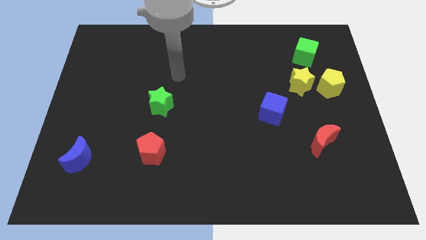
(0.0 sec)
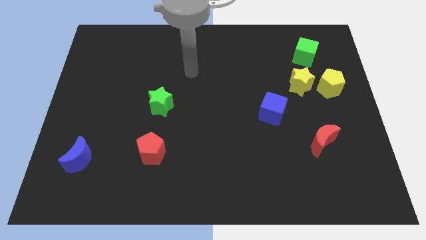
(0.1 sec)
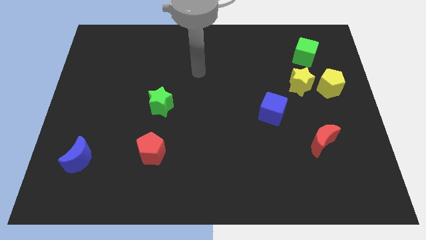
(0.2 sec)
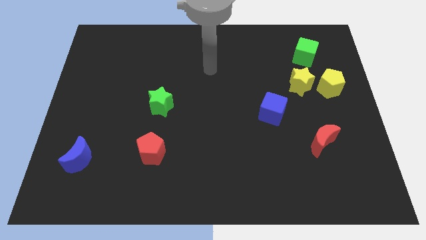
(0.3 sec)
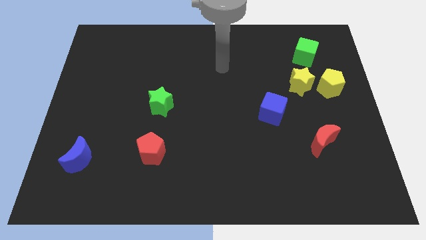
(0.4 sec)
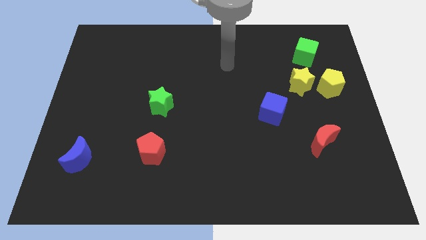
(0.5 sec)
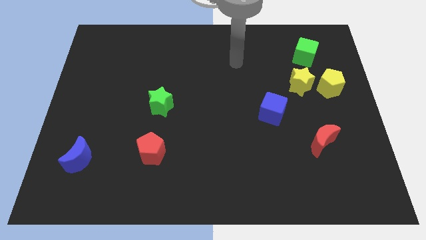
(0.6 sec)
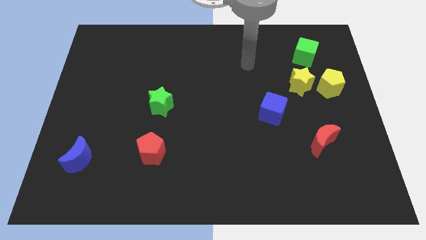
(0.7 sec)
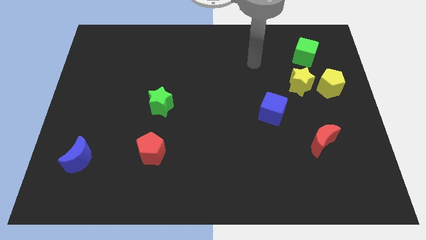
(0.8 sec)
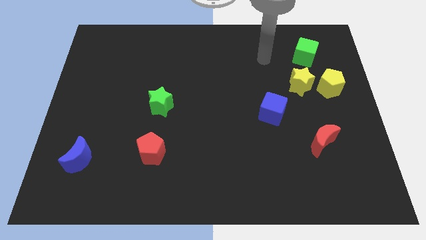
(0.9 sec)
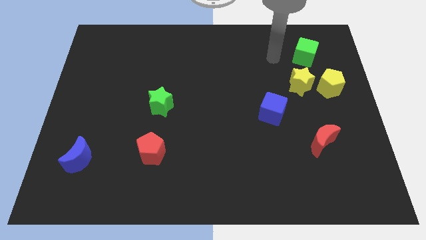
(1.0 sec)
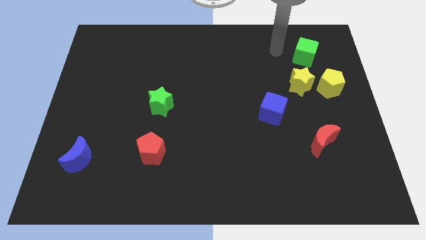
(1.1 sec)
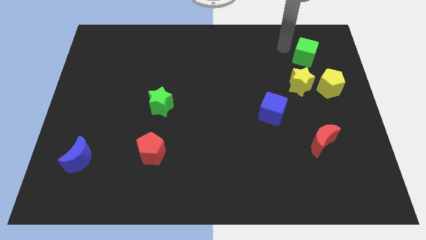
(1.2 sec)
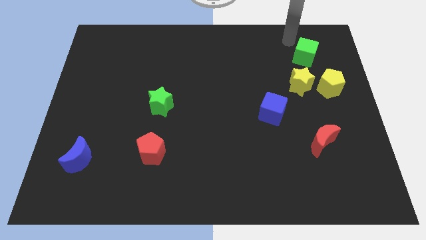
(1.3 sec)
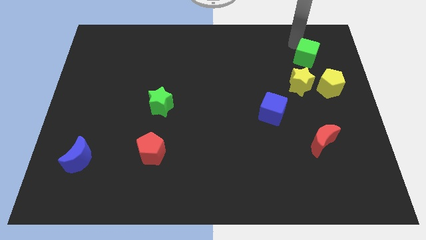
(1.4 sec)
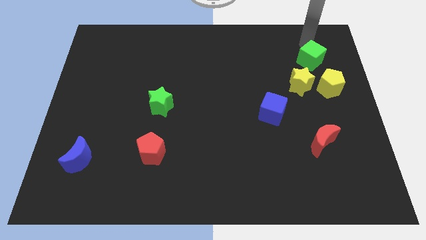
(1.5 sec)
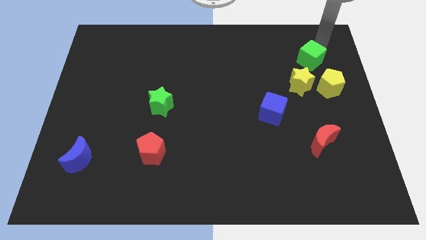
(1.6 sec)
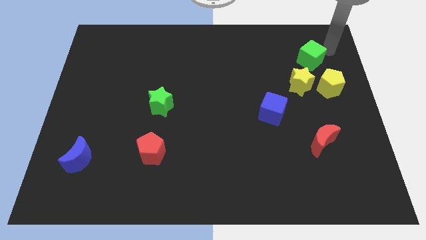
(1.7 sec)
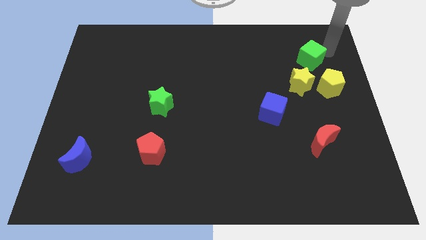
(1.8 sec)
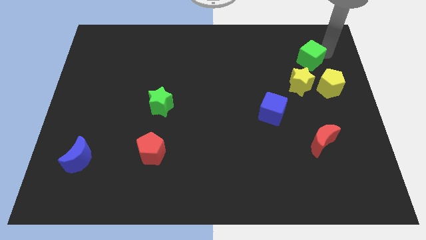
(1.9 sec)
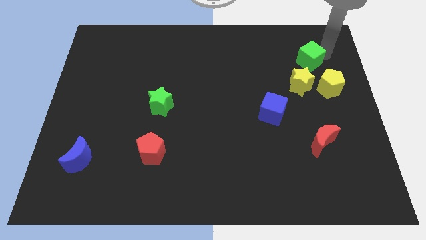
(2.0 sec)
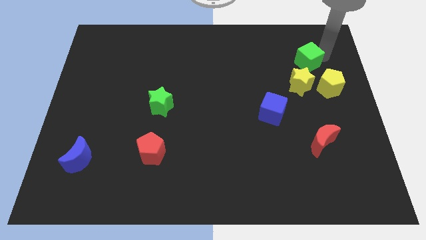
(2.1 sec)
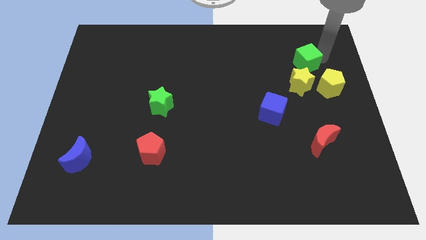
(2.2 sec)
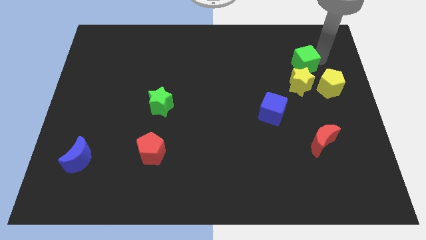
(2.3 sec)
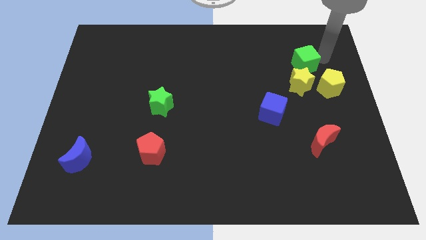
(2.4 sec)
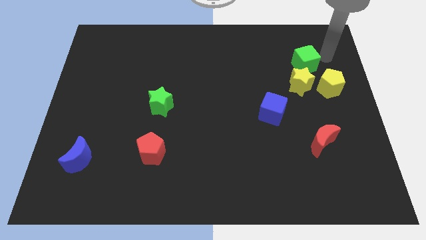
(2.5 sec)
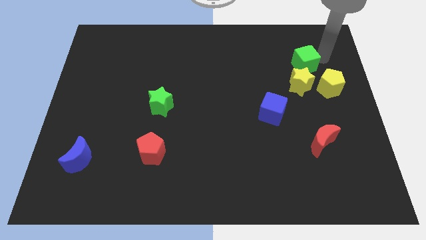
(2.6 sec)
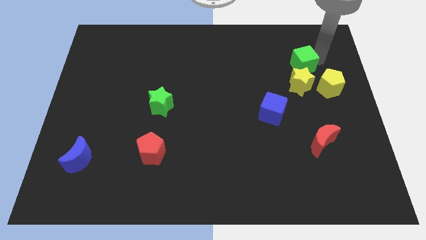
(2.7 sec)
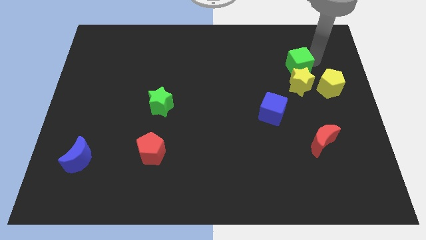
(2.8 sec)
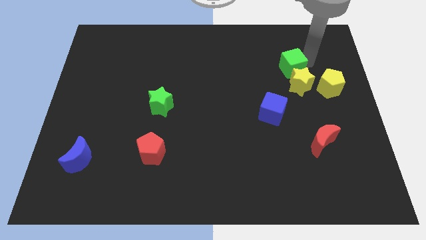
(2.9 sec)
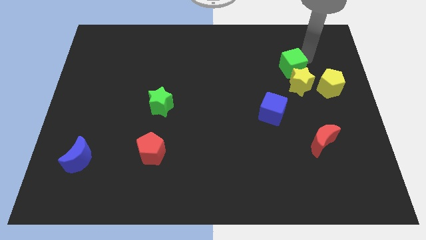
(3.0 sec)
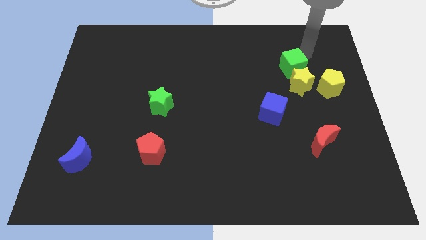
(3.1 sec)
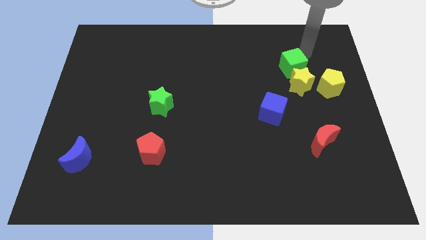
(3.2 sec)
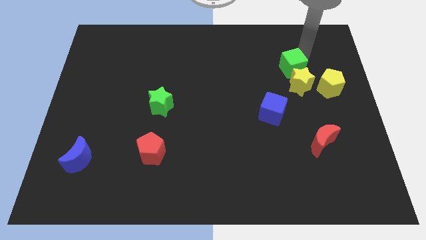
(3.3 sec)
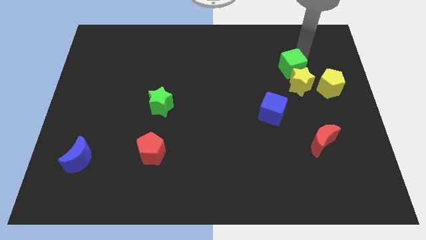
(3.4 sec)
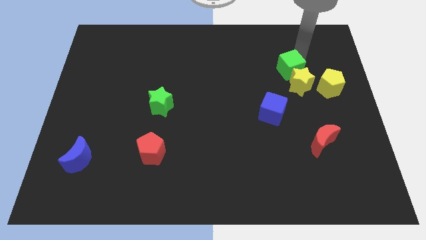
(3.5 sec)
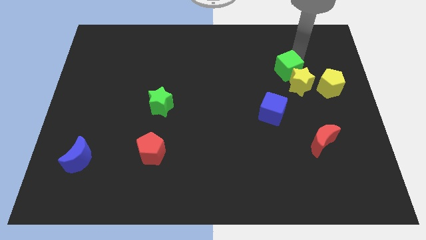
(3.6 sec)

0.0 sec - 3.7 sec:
push the green cube a little down and to the left diagonally

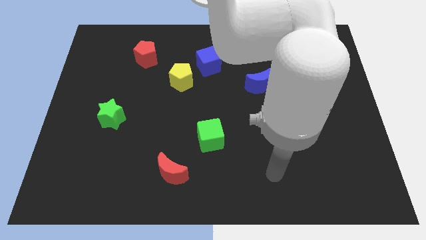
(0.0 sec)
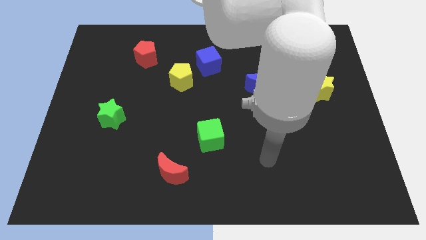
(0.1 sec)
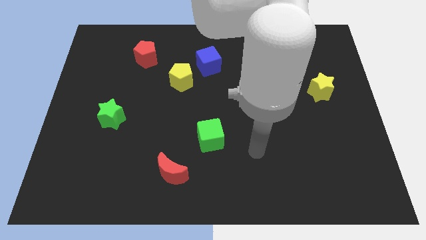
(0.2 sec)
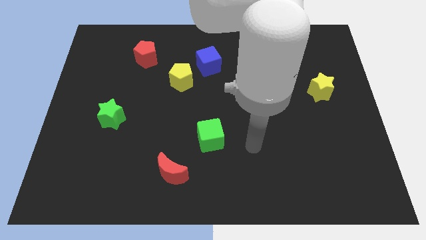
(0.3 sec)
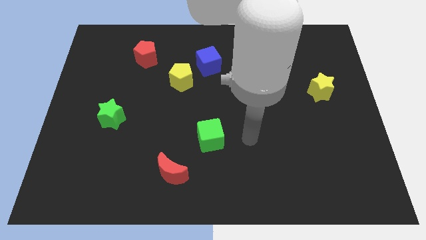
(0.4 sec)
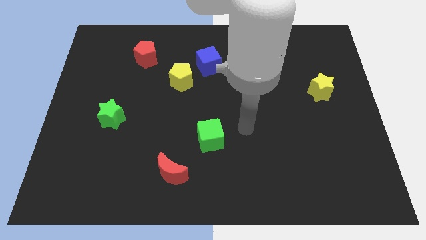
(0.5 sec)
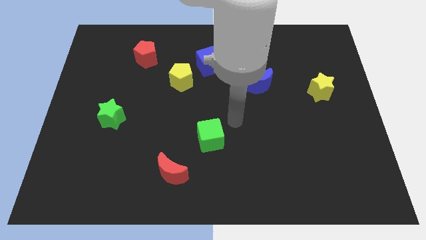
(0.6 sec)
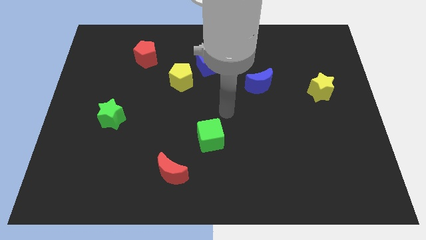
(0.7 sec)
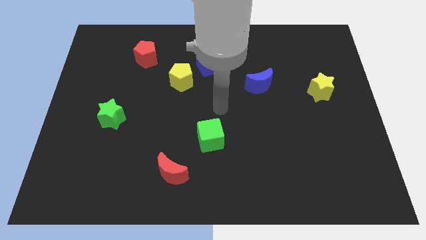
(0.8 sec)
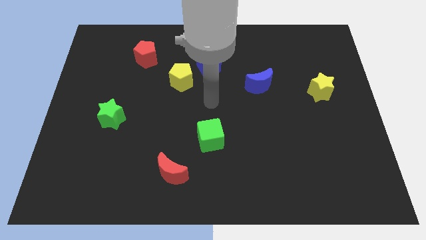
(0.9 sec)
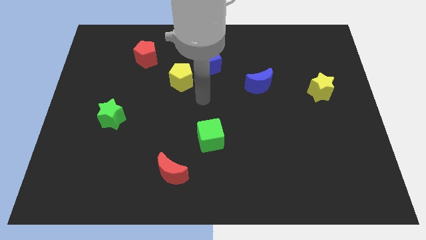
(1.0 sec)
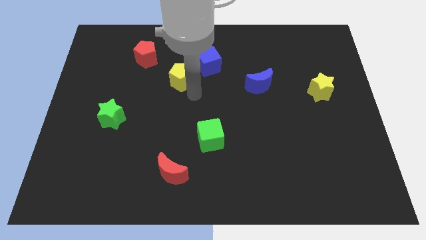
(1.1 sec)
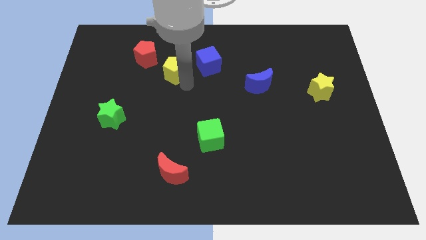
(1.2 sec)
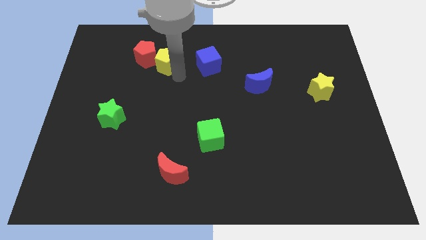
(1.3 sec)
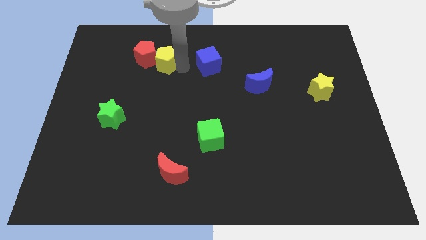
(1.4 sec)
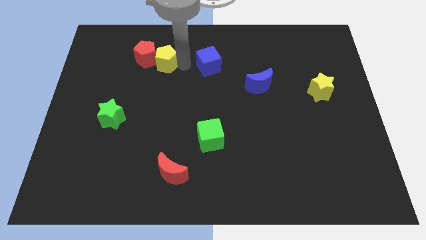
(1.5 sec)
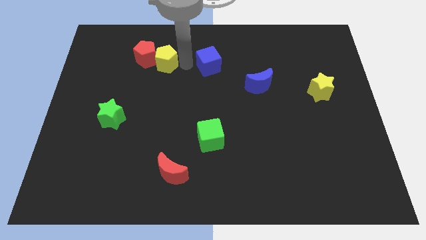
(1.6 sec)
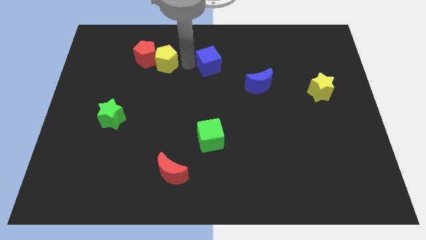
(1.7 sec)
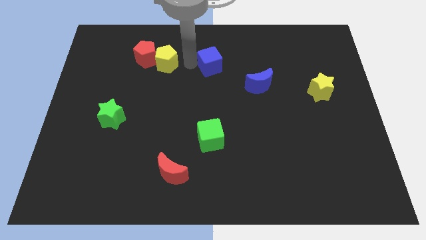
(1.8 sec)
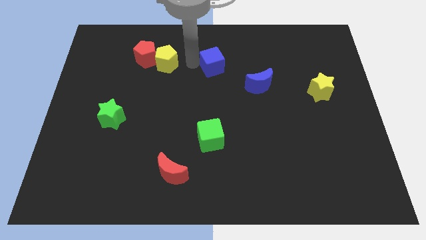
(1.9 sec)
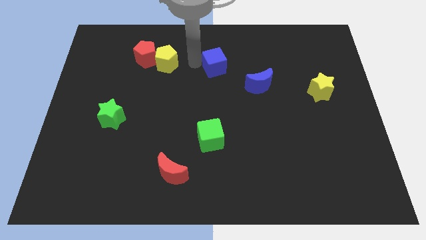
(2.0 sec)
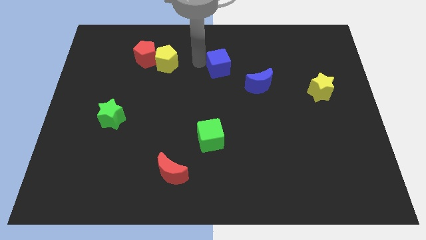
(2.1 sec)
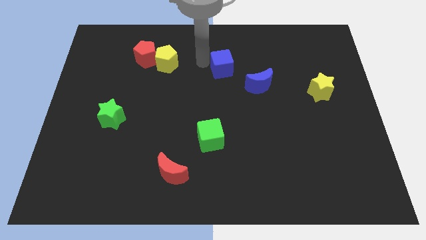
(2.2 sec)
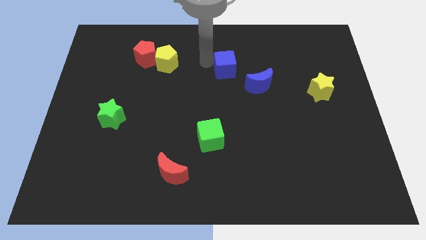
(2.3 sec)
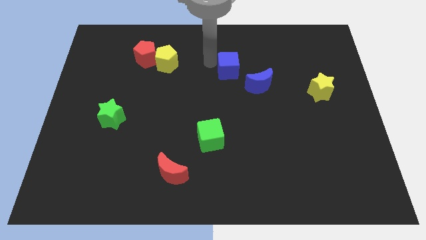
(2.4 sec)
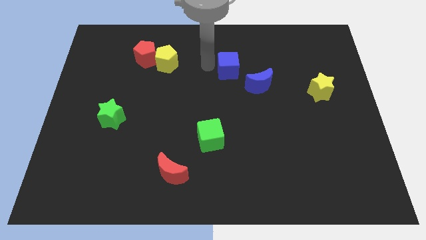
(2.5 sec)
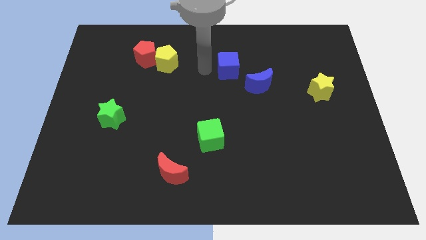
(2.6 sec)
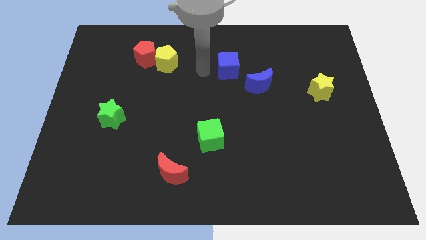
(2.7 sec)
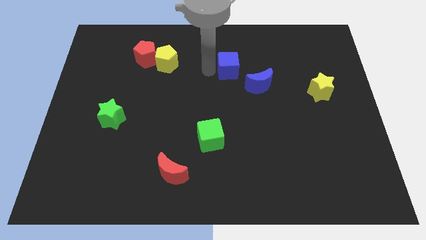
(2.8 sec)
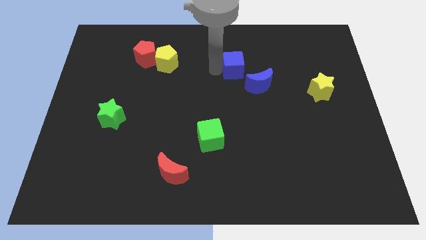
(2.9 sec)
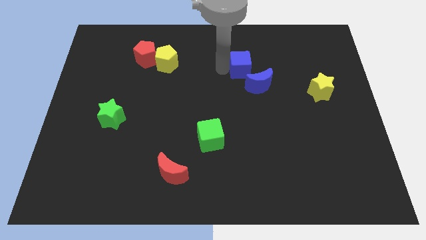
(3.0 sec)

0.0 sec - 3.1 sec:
slide the blue cube right a bit

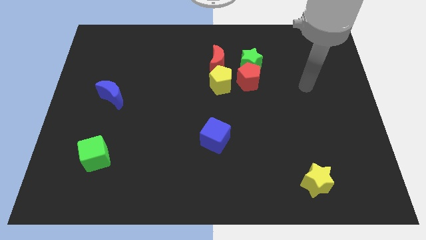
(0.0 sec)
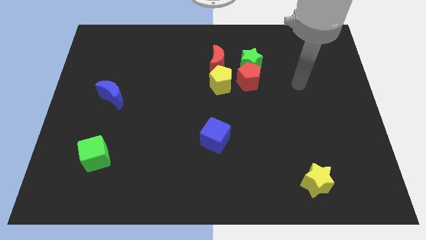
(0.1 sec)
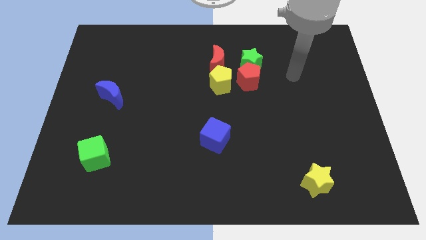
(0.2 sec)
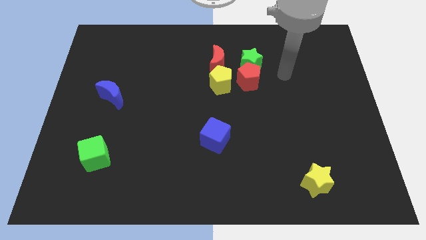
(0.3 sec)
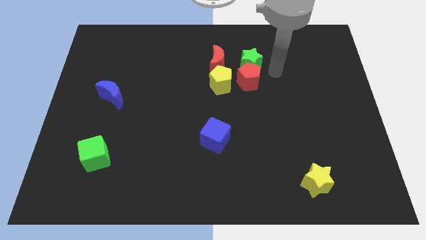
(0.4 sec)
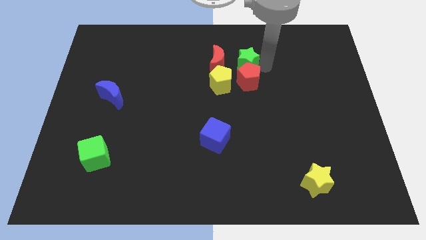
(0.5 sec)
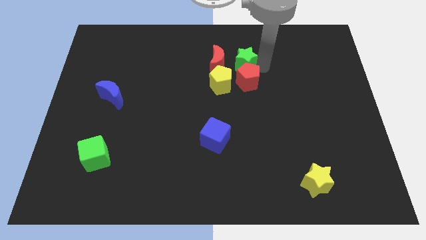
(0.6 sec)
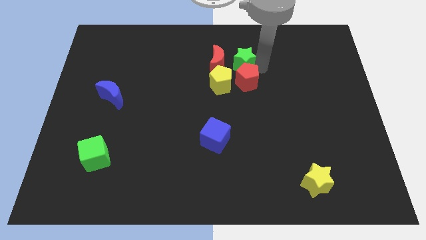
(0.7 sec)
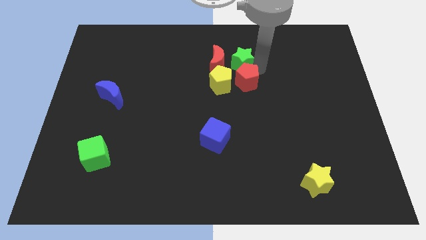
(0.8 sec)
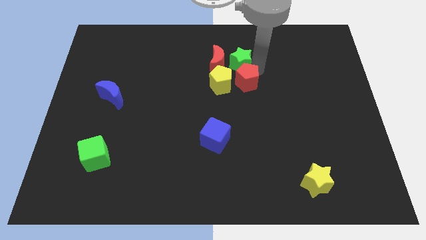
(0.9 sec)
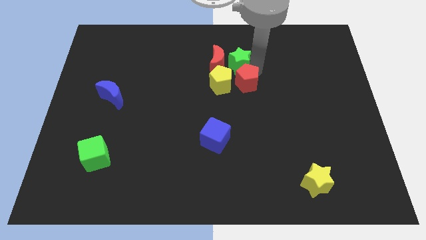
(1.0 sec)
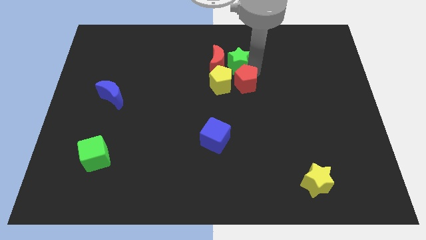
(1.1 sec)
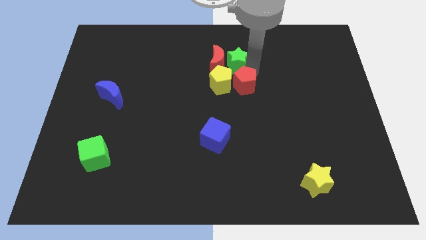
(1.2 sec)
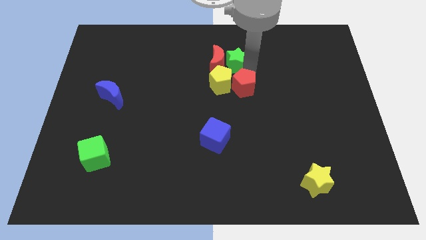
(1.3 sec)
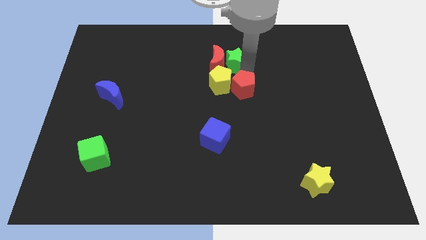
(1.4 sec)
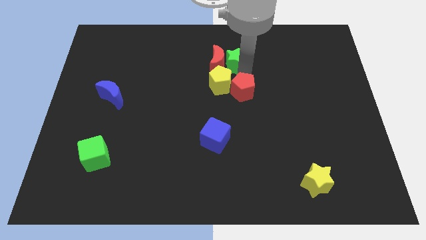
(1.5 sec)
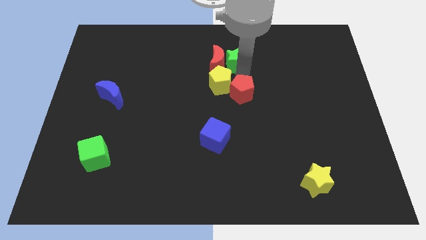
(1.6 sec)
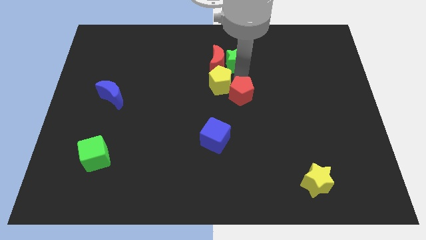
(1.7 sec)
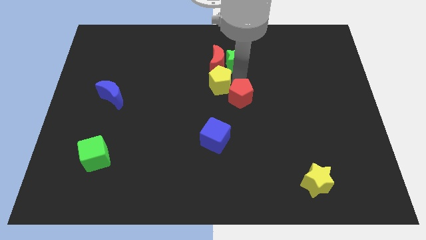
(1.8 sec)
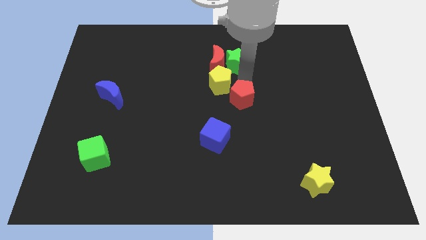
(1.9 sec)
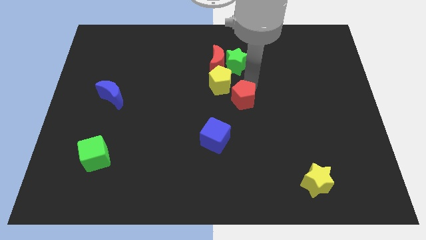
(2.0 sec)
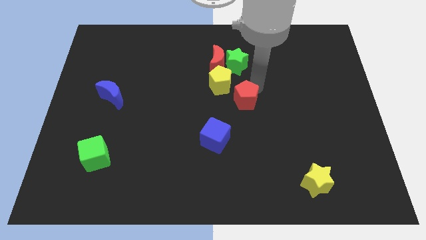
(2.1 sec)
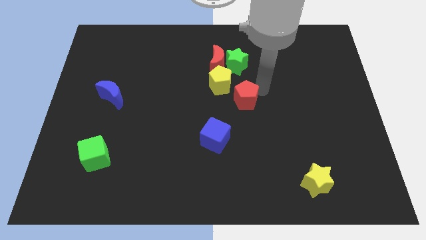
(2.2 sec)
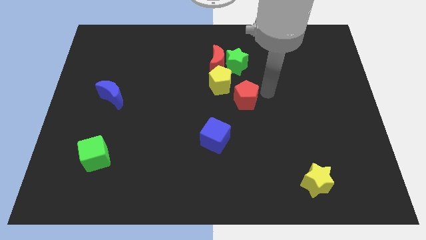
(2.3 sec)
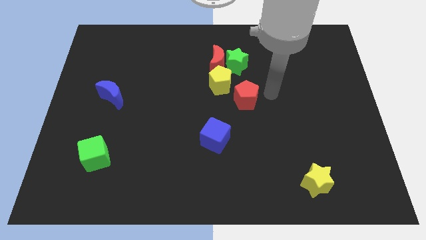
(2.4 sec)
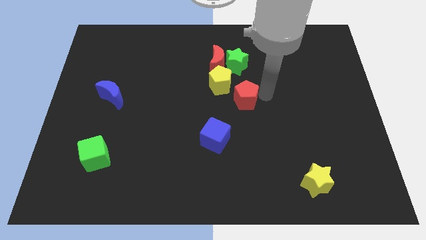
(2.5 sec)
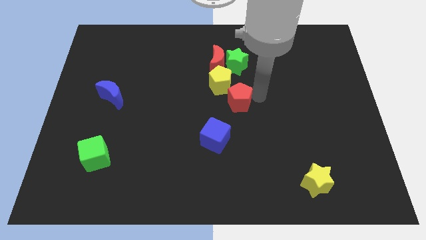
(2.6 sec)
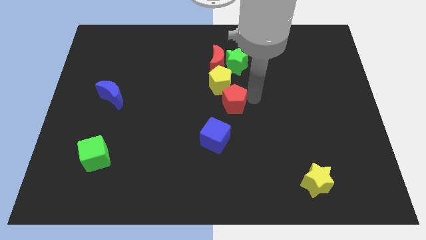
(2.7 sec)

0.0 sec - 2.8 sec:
slightly slide the red pentagon diagonally downwards and to the left
